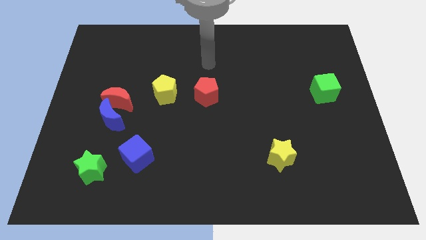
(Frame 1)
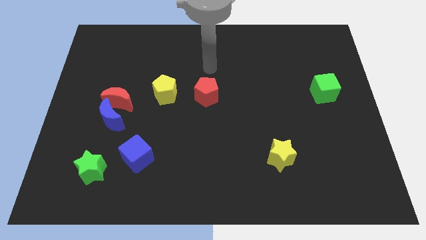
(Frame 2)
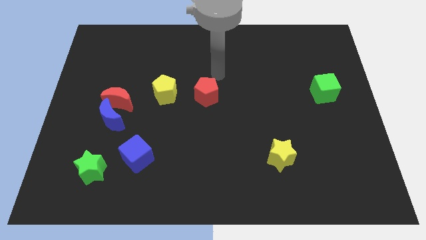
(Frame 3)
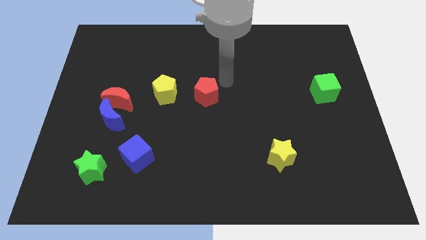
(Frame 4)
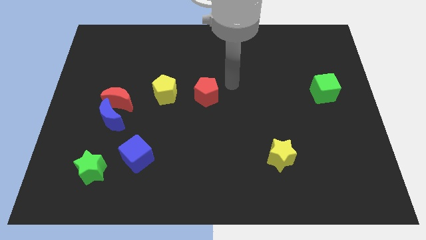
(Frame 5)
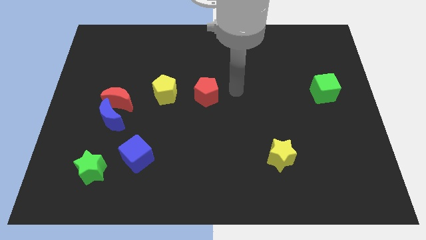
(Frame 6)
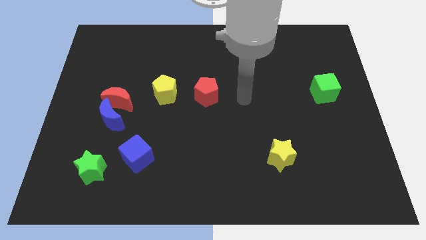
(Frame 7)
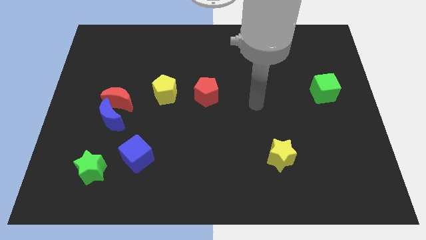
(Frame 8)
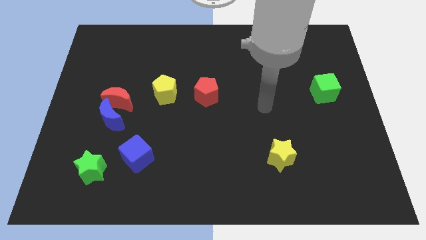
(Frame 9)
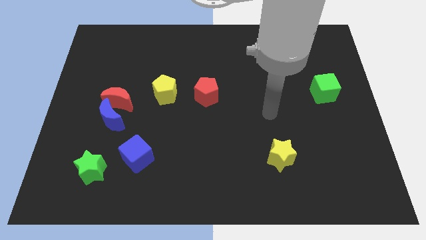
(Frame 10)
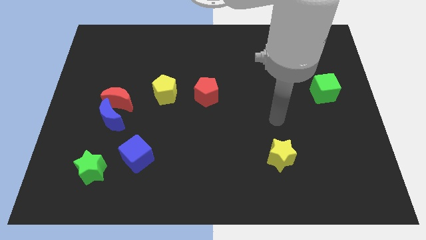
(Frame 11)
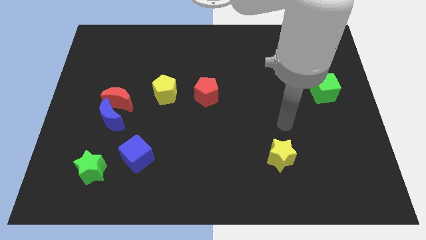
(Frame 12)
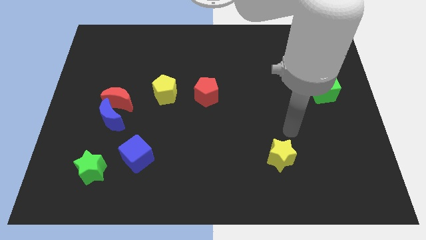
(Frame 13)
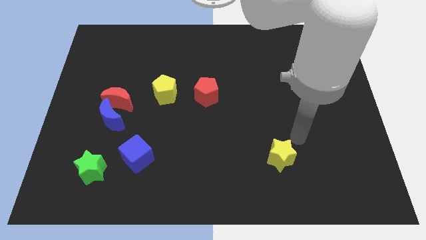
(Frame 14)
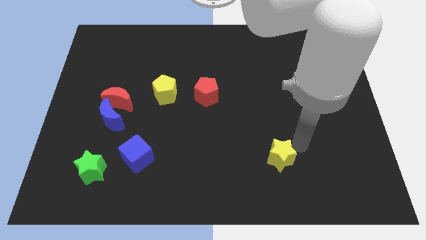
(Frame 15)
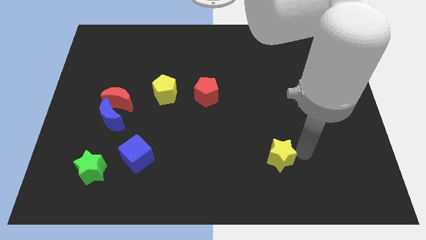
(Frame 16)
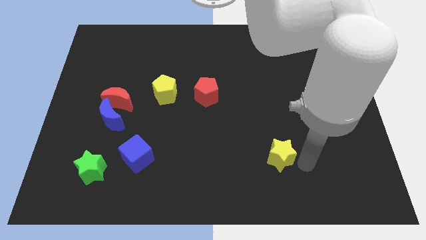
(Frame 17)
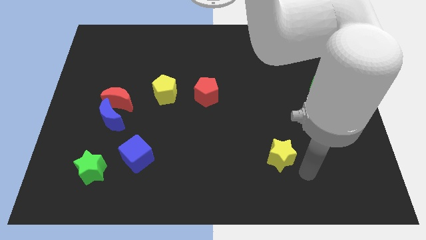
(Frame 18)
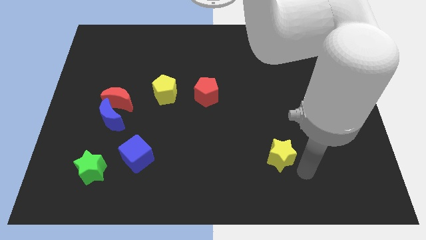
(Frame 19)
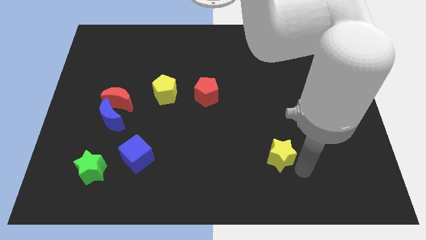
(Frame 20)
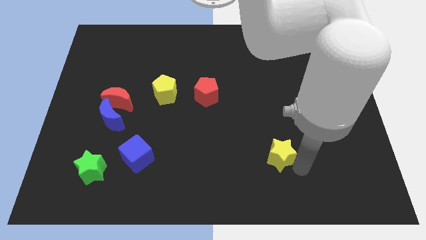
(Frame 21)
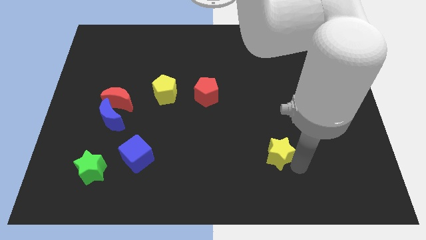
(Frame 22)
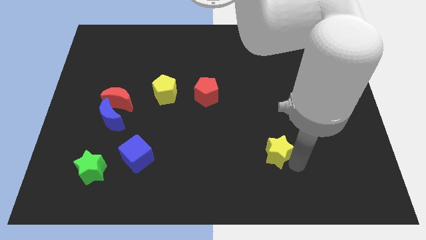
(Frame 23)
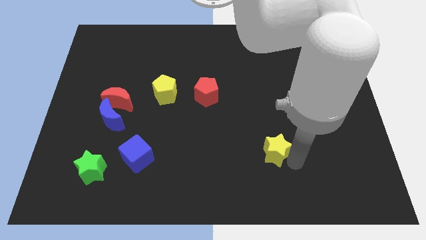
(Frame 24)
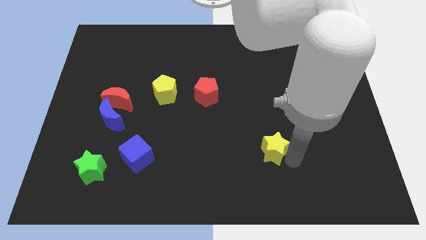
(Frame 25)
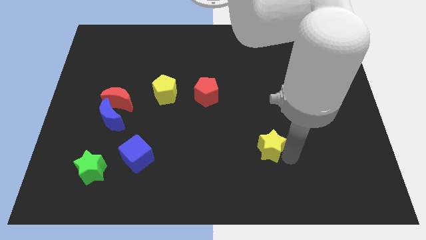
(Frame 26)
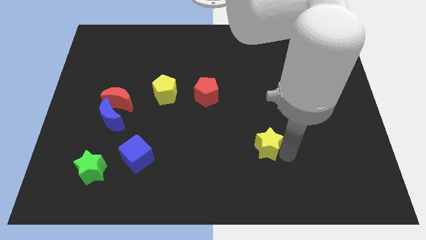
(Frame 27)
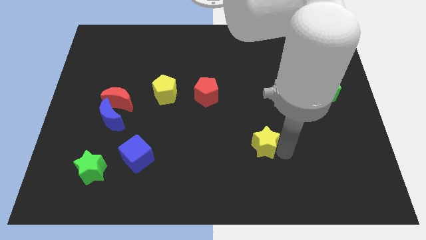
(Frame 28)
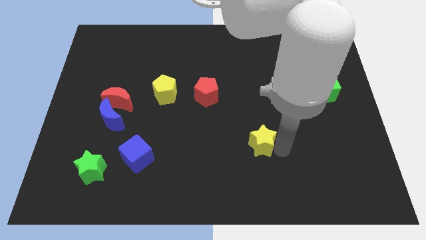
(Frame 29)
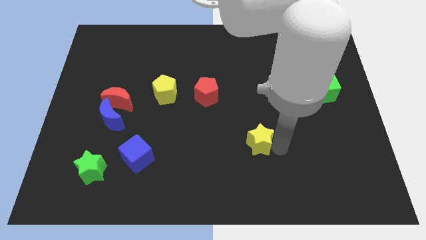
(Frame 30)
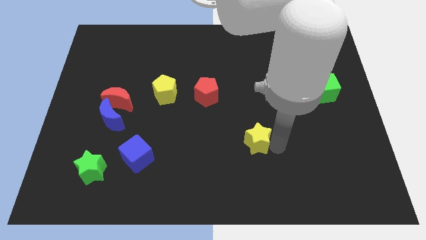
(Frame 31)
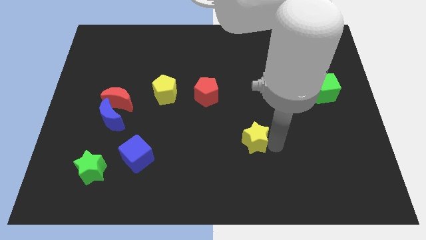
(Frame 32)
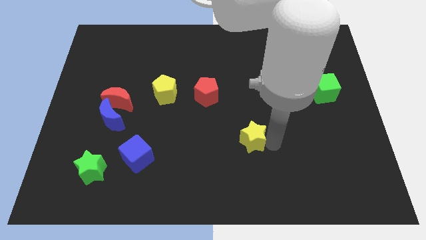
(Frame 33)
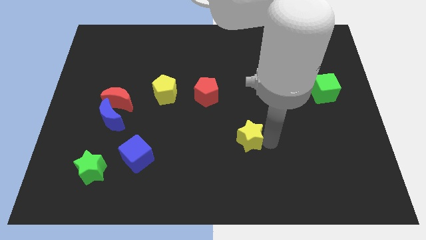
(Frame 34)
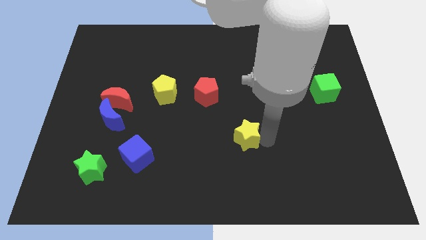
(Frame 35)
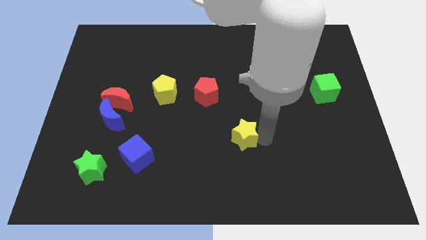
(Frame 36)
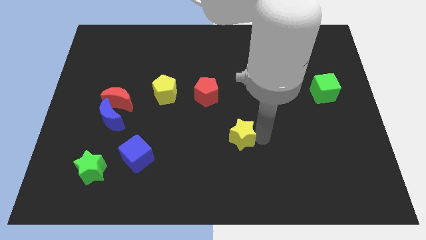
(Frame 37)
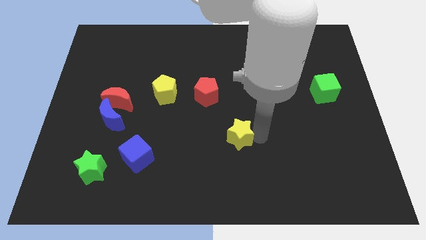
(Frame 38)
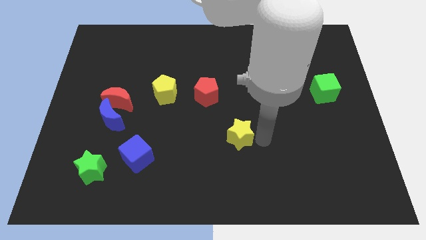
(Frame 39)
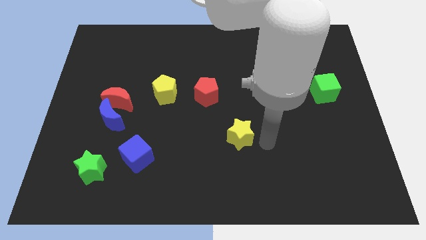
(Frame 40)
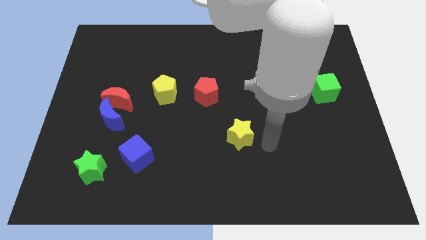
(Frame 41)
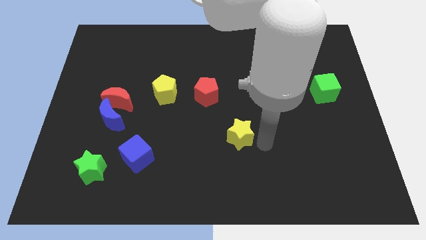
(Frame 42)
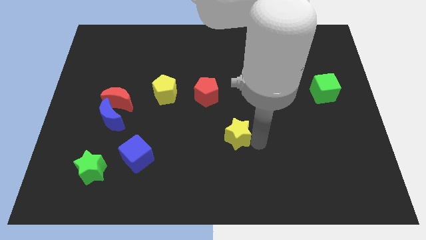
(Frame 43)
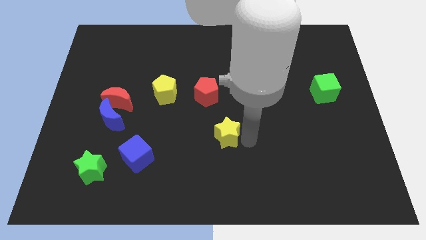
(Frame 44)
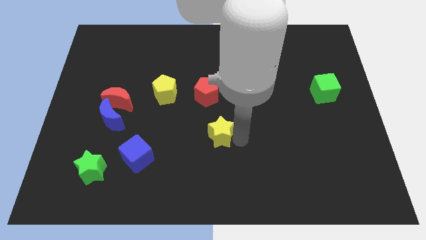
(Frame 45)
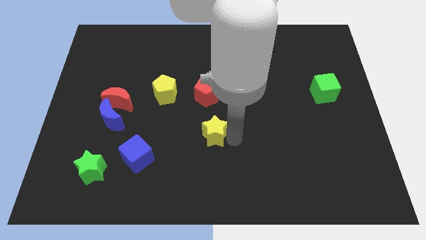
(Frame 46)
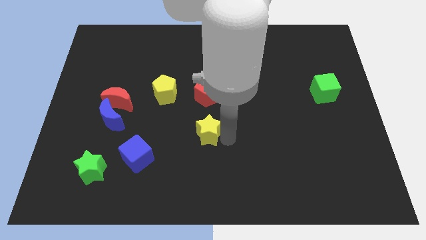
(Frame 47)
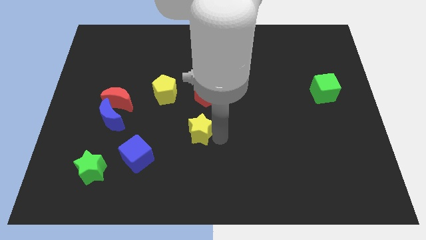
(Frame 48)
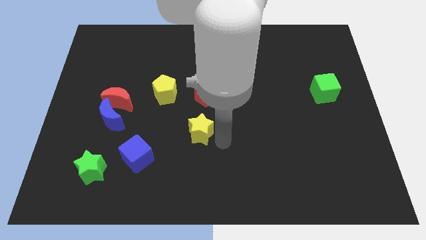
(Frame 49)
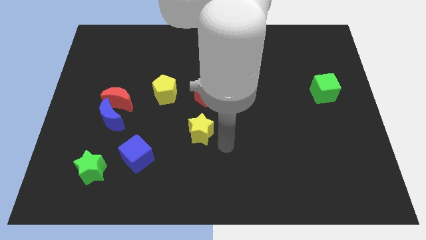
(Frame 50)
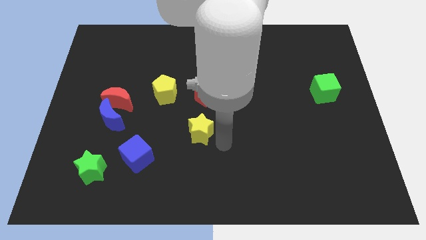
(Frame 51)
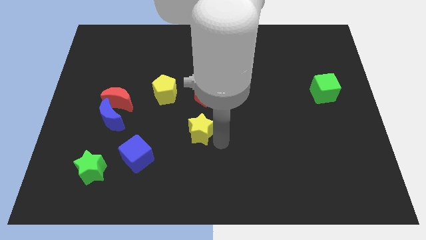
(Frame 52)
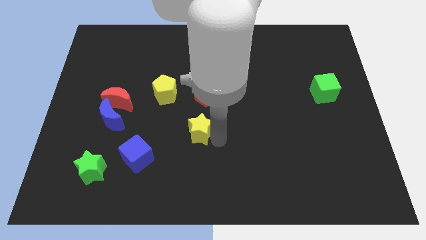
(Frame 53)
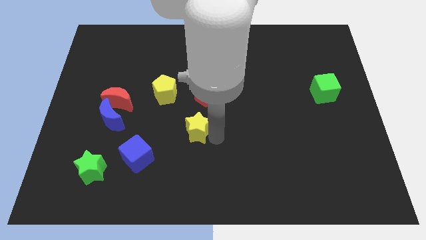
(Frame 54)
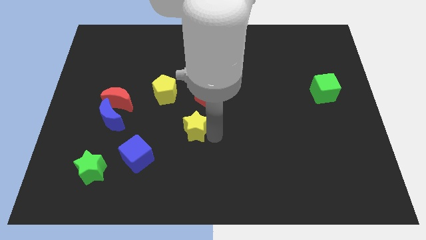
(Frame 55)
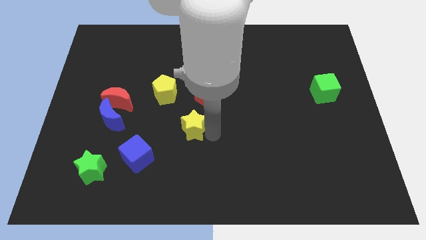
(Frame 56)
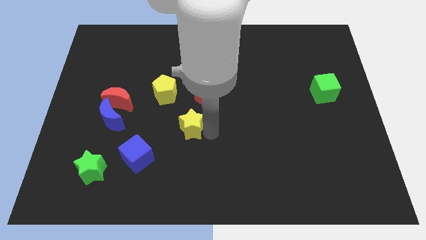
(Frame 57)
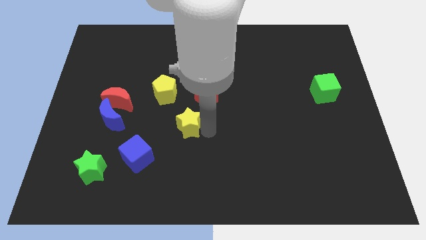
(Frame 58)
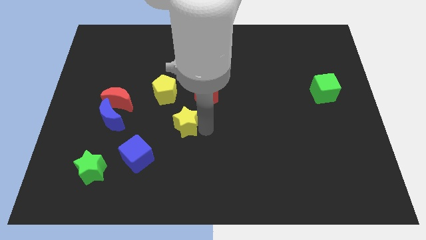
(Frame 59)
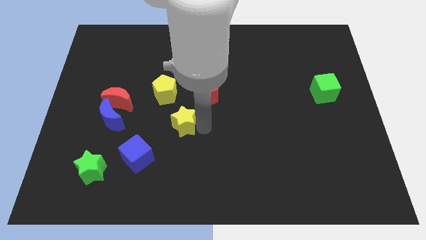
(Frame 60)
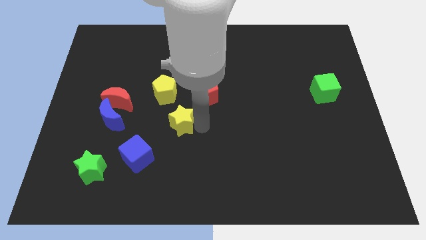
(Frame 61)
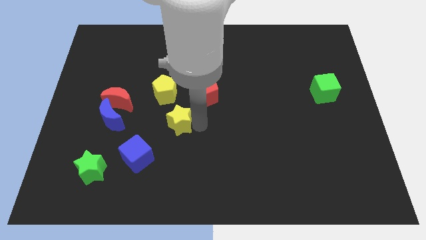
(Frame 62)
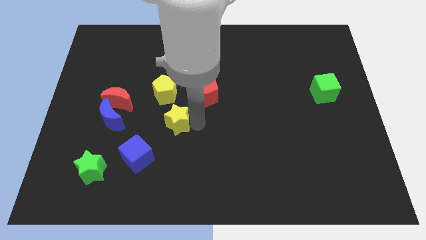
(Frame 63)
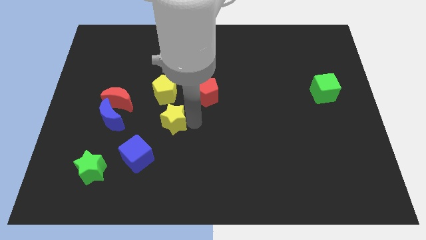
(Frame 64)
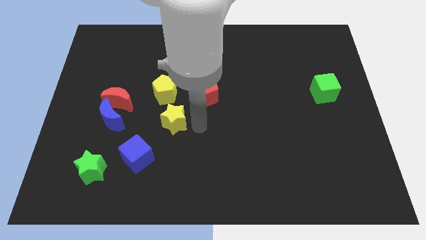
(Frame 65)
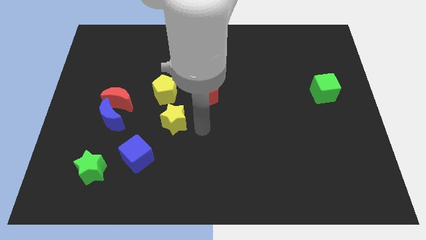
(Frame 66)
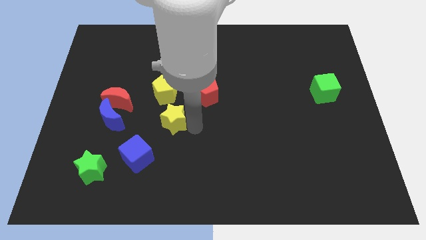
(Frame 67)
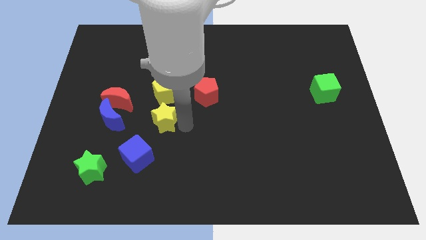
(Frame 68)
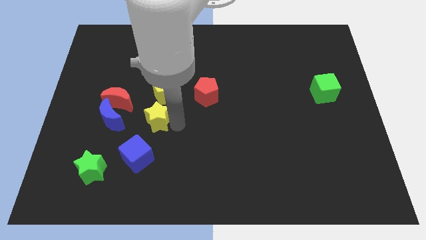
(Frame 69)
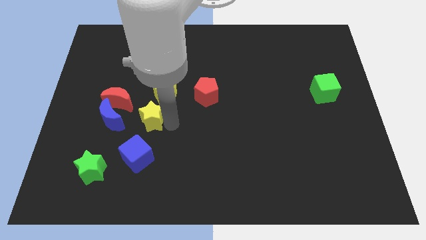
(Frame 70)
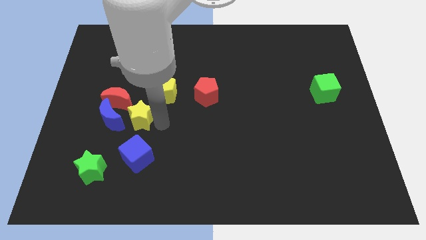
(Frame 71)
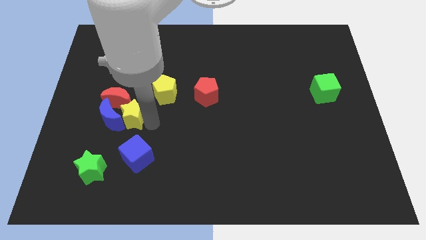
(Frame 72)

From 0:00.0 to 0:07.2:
put the yellow star next to the red moon
